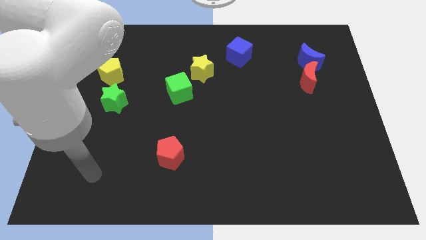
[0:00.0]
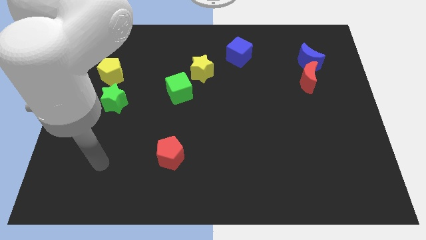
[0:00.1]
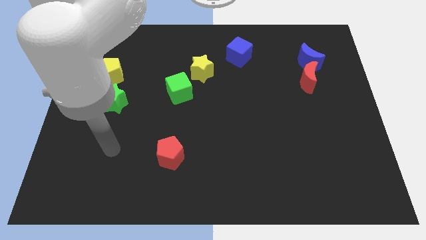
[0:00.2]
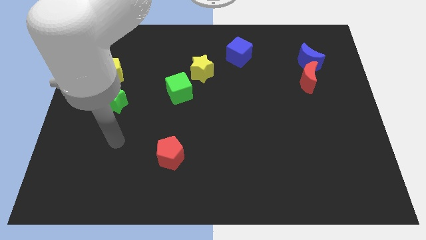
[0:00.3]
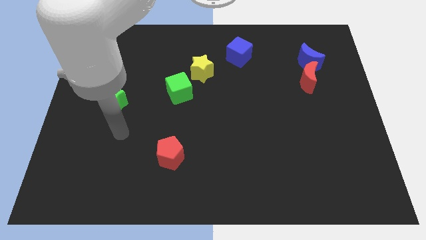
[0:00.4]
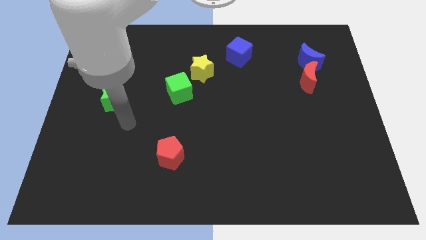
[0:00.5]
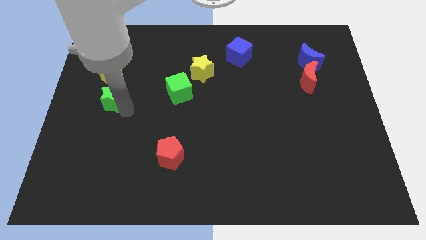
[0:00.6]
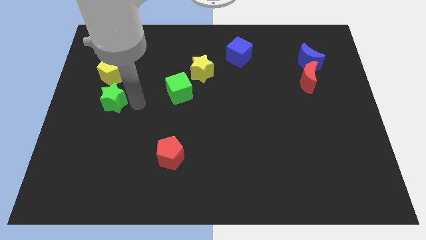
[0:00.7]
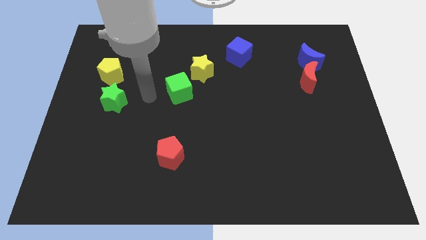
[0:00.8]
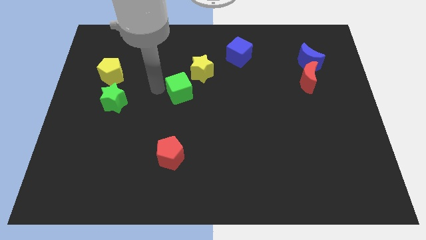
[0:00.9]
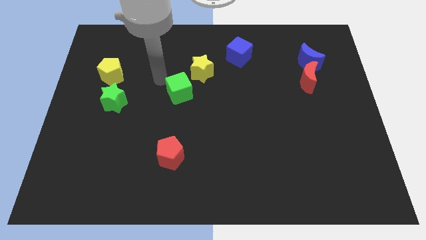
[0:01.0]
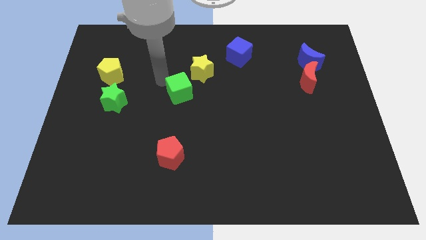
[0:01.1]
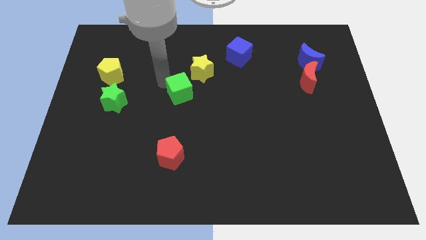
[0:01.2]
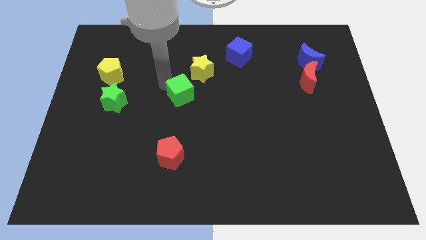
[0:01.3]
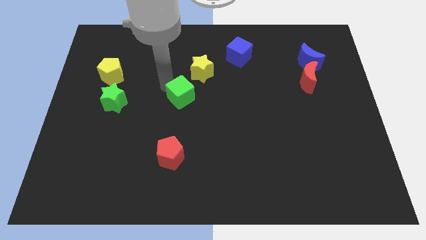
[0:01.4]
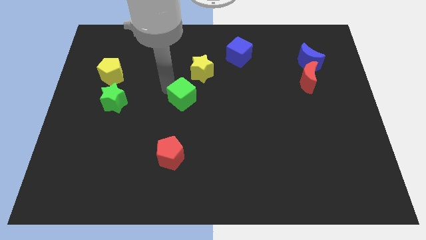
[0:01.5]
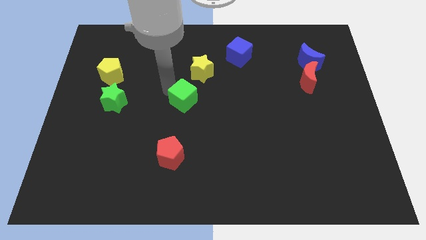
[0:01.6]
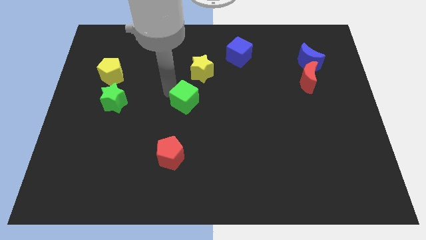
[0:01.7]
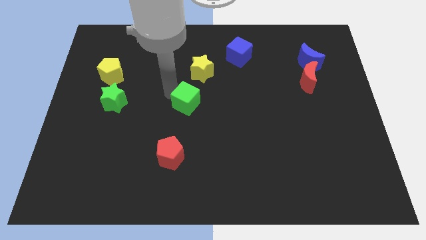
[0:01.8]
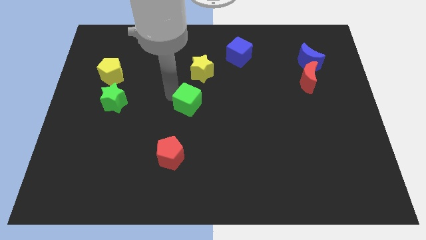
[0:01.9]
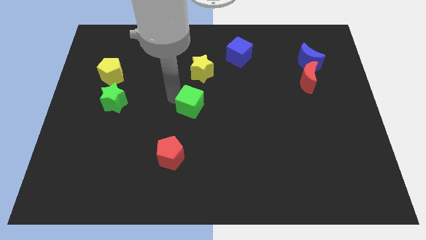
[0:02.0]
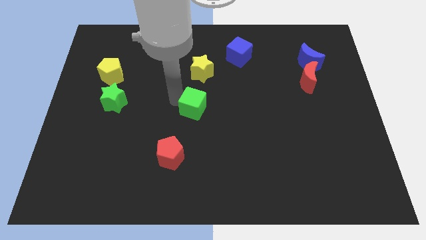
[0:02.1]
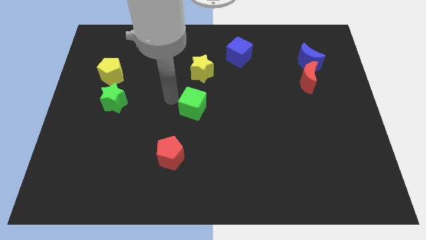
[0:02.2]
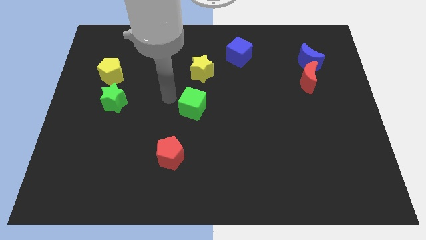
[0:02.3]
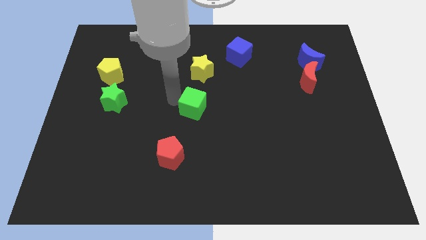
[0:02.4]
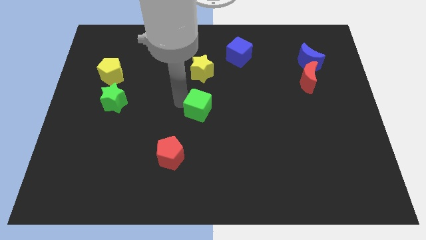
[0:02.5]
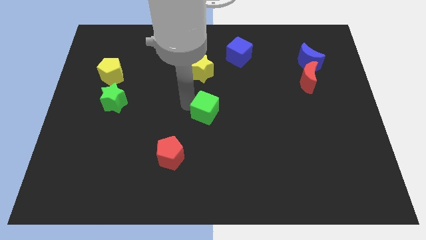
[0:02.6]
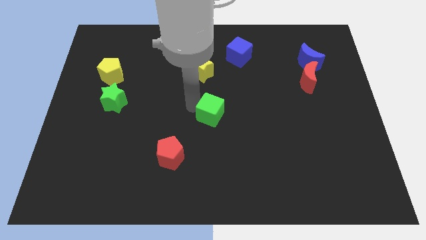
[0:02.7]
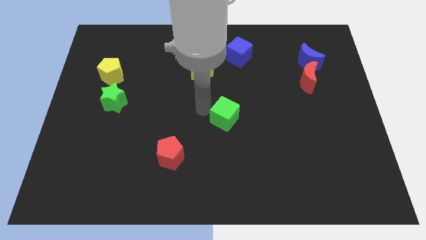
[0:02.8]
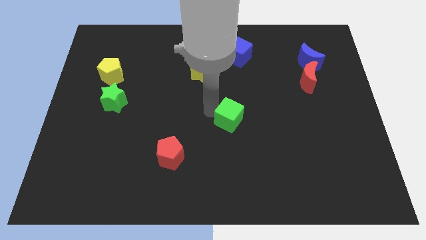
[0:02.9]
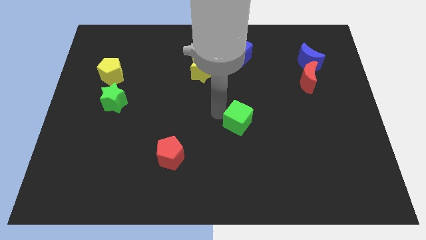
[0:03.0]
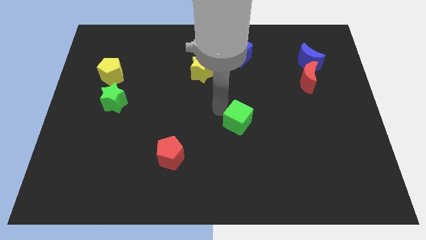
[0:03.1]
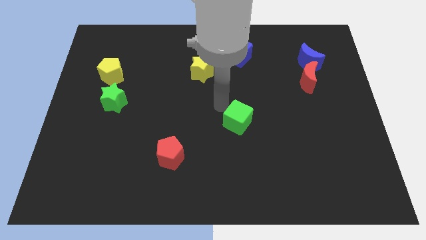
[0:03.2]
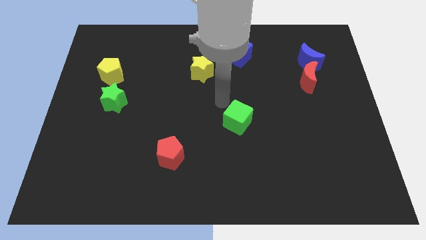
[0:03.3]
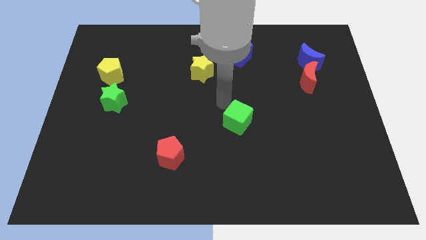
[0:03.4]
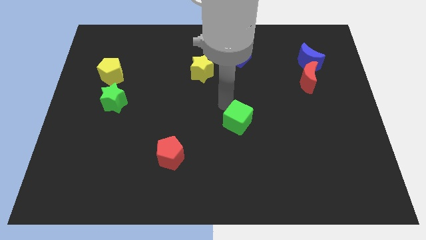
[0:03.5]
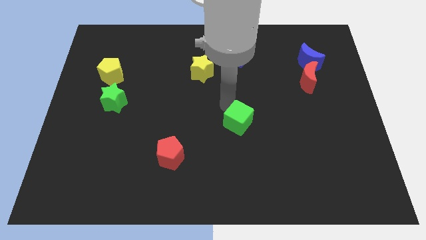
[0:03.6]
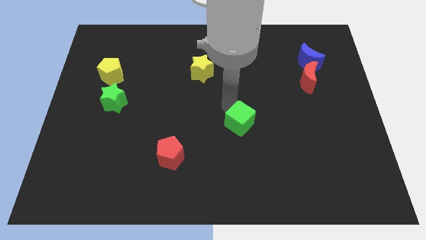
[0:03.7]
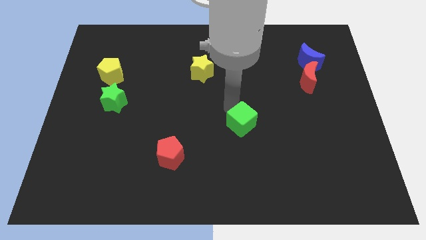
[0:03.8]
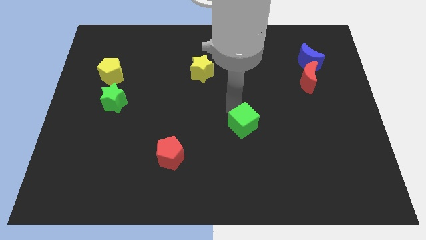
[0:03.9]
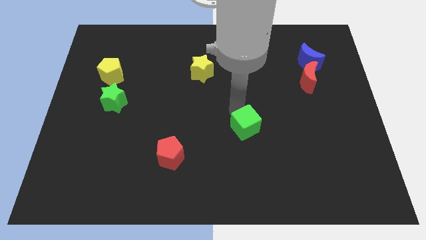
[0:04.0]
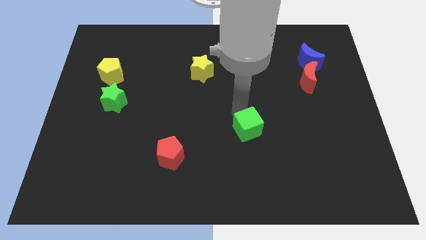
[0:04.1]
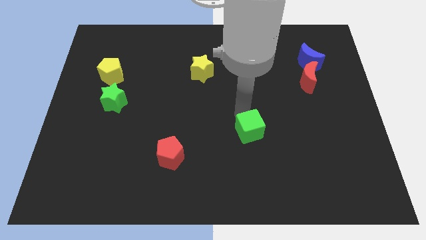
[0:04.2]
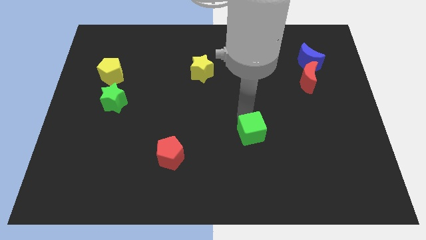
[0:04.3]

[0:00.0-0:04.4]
slide the green cube down and to the right

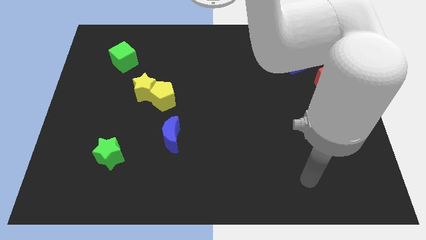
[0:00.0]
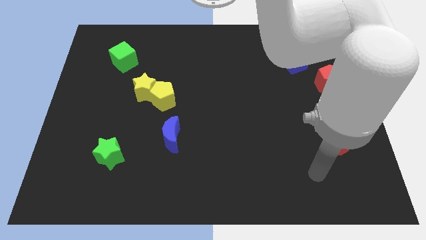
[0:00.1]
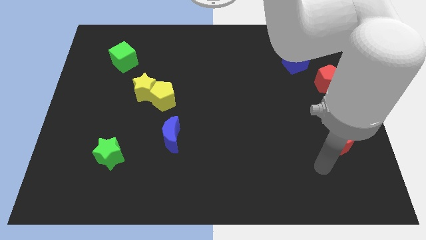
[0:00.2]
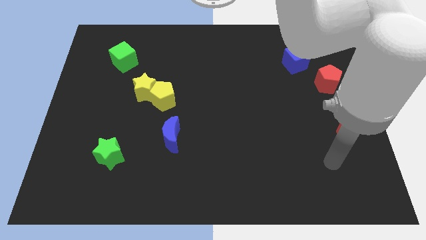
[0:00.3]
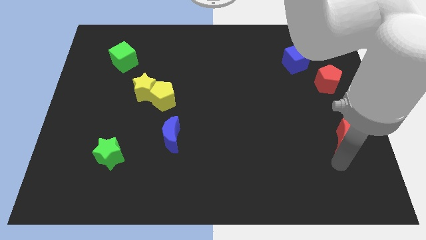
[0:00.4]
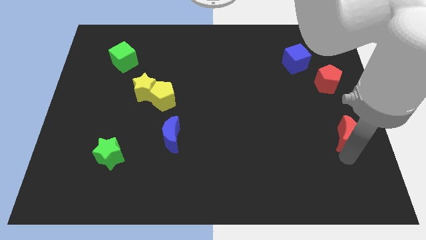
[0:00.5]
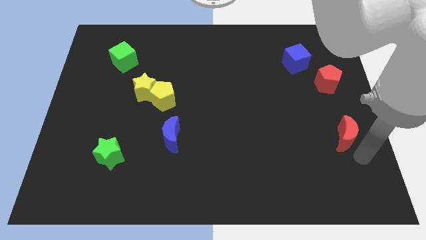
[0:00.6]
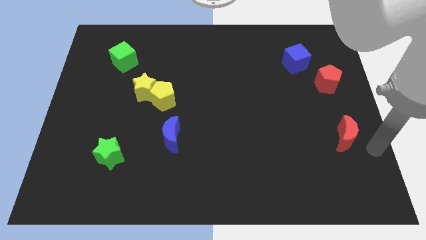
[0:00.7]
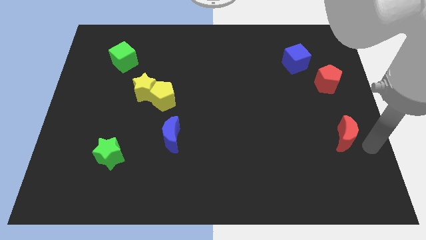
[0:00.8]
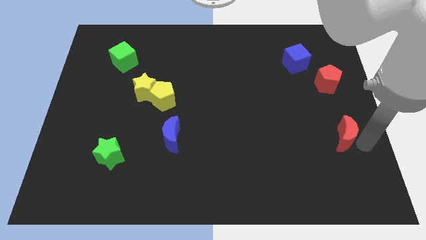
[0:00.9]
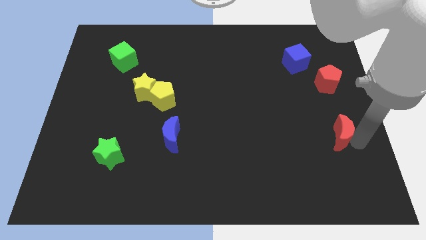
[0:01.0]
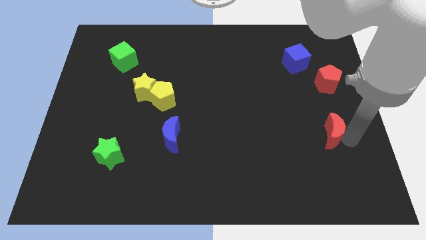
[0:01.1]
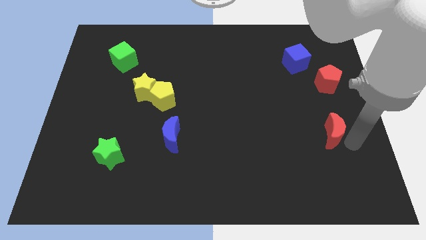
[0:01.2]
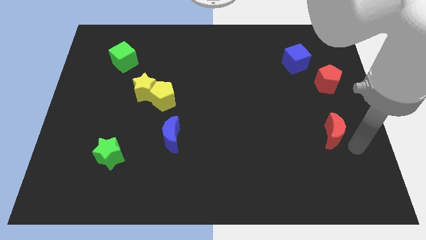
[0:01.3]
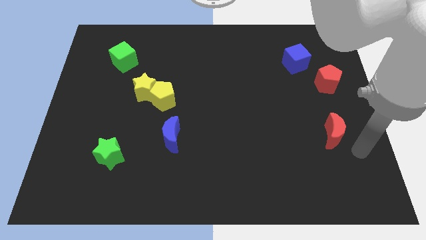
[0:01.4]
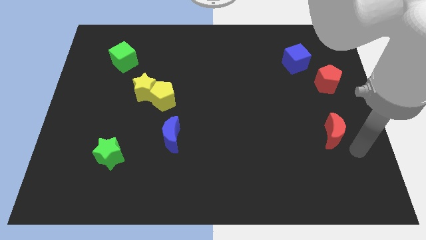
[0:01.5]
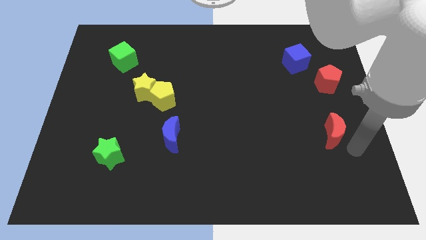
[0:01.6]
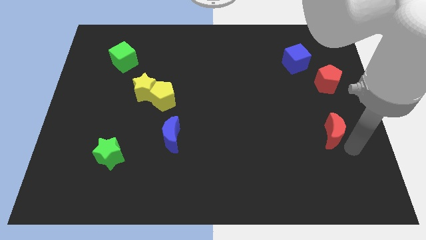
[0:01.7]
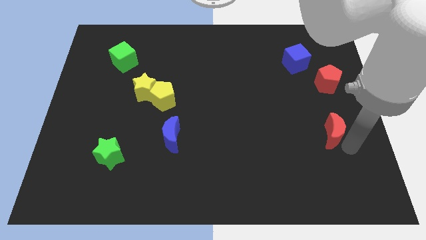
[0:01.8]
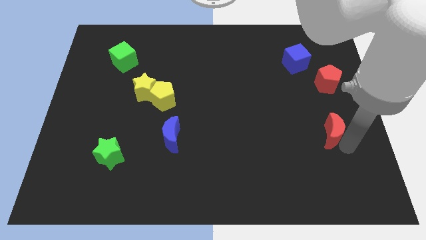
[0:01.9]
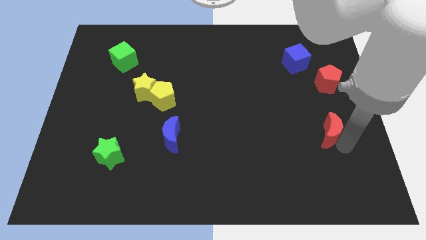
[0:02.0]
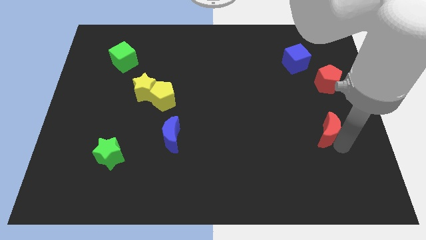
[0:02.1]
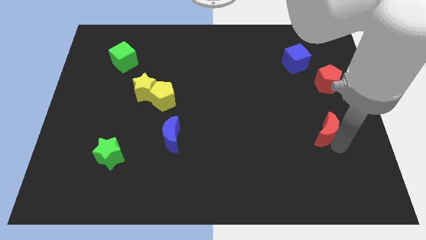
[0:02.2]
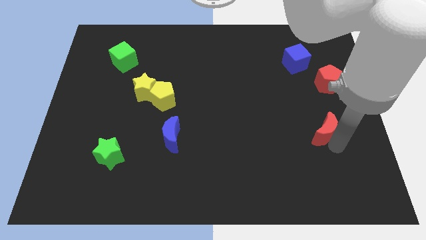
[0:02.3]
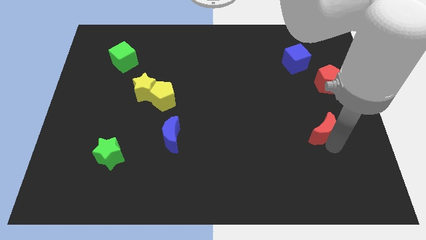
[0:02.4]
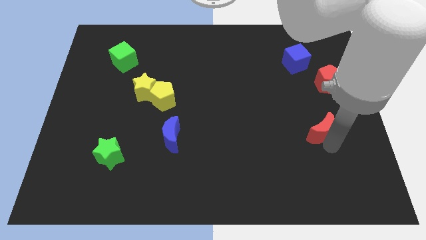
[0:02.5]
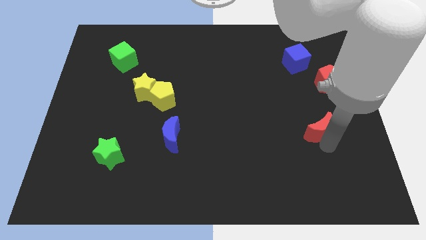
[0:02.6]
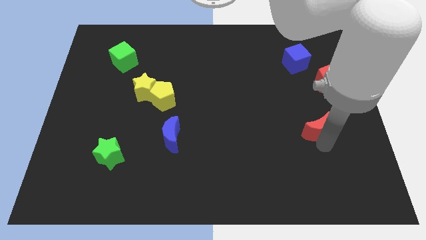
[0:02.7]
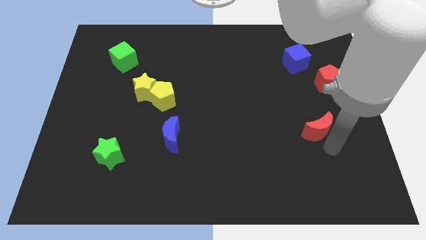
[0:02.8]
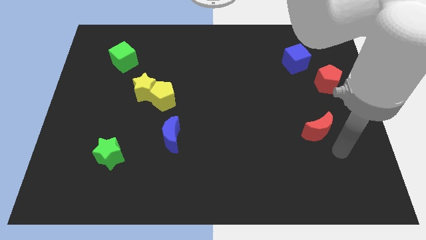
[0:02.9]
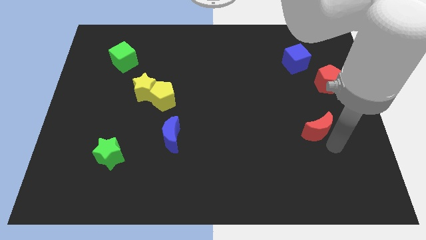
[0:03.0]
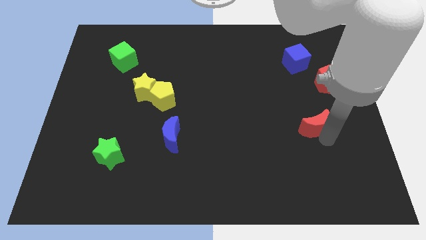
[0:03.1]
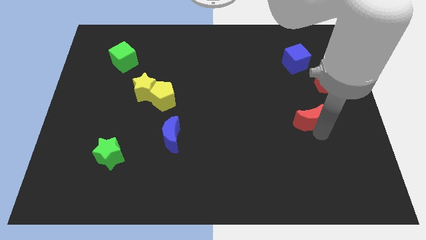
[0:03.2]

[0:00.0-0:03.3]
push the red moon a little diagonally upwards and to the left
